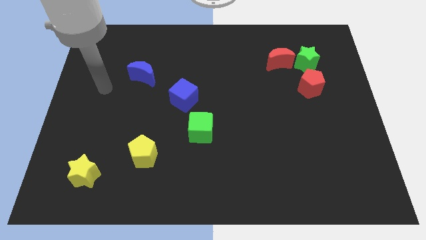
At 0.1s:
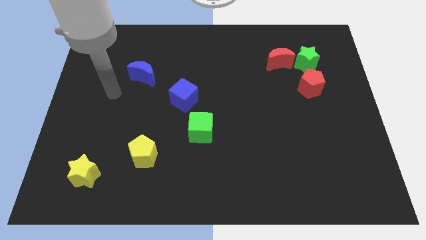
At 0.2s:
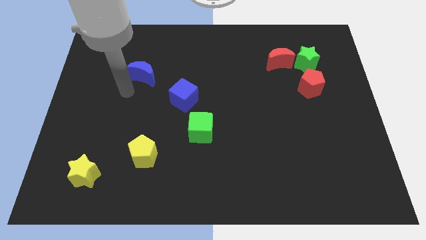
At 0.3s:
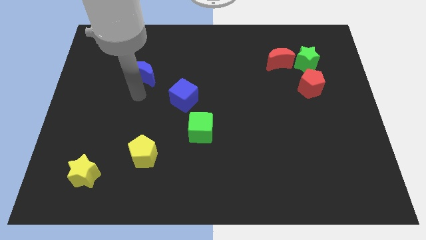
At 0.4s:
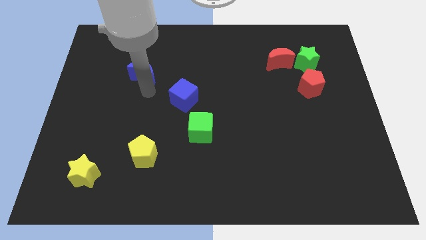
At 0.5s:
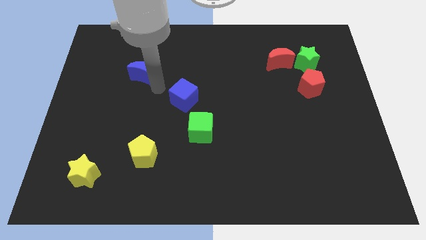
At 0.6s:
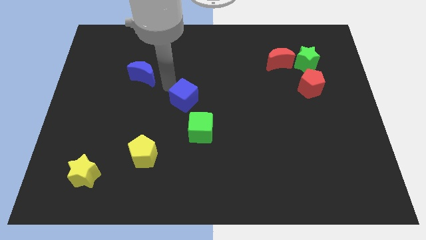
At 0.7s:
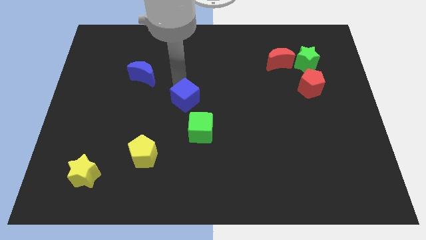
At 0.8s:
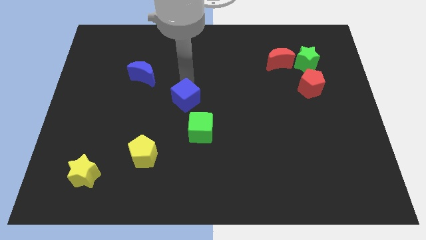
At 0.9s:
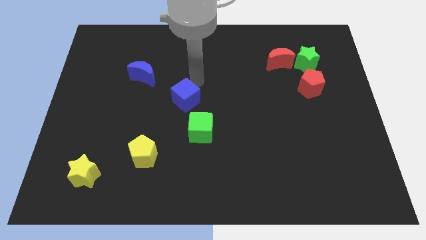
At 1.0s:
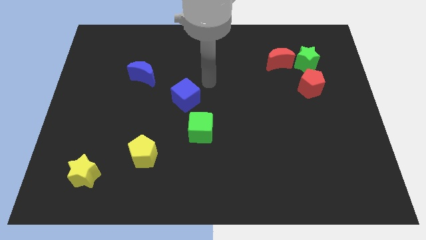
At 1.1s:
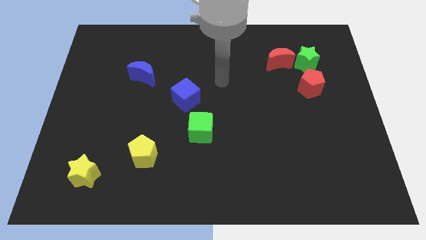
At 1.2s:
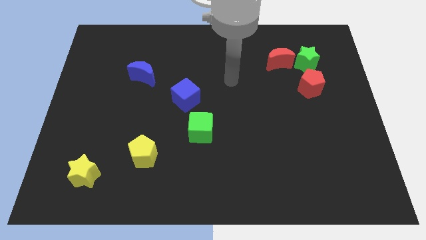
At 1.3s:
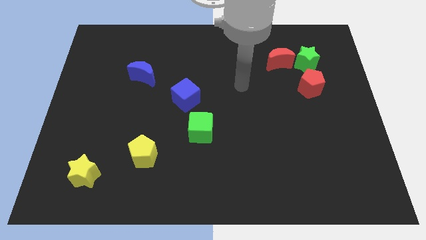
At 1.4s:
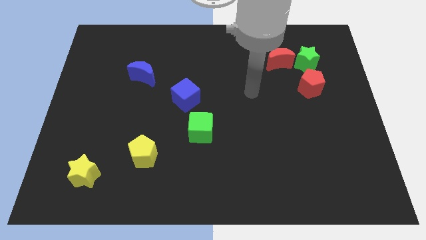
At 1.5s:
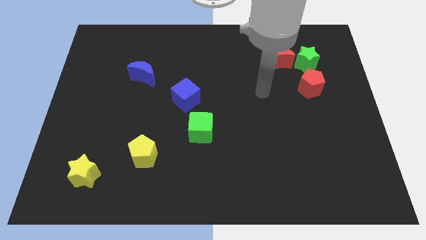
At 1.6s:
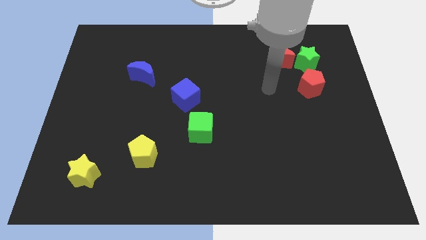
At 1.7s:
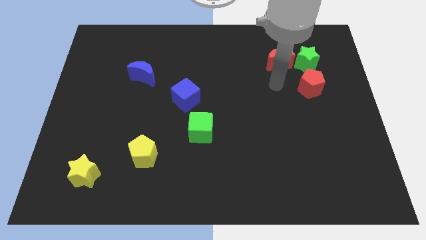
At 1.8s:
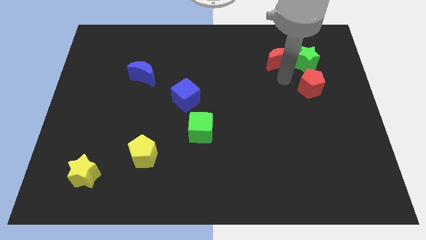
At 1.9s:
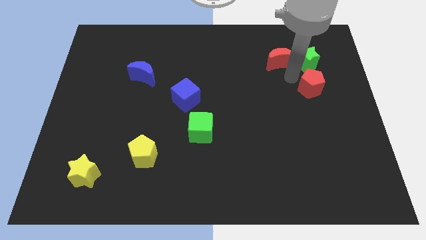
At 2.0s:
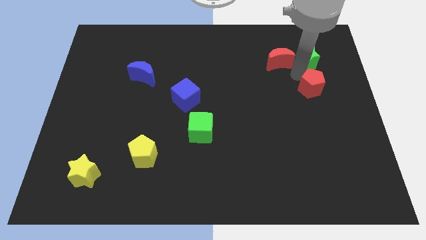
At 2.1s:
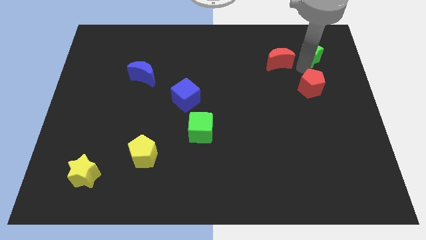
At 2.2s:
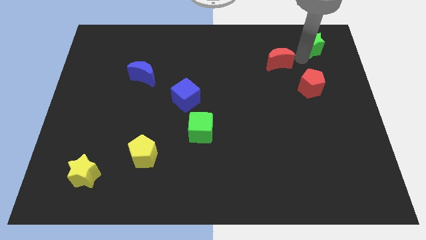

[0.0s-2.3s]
move the red moon away from the green star

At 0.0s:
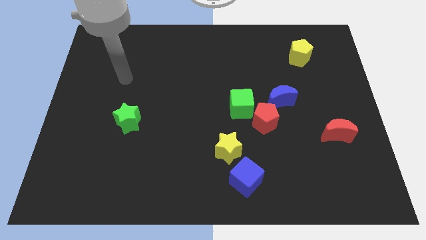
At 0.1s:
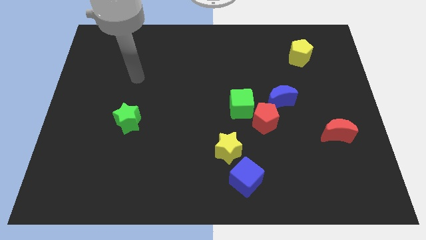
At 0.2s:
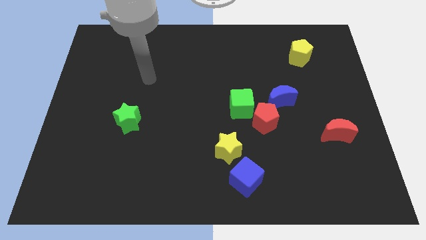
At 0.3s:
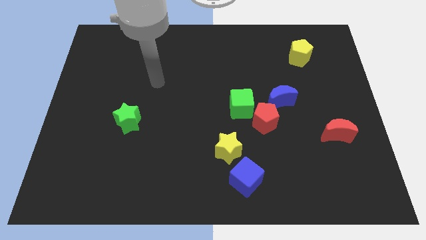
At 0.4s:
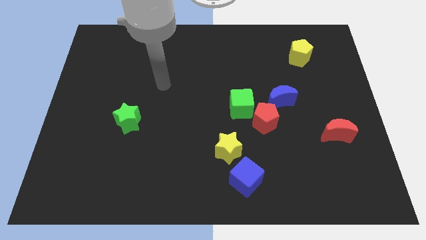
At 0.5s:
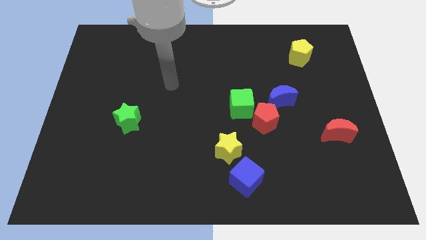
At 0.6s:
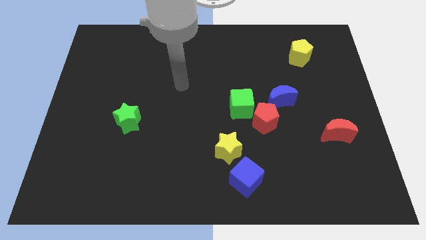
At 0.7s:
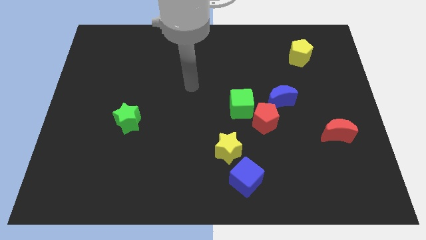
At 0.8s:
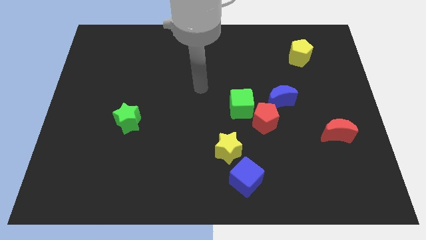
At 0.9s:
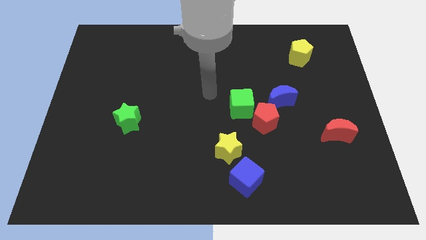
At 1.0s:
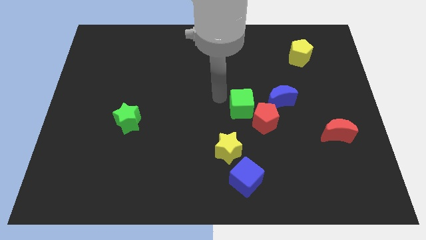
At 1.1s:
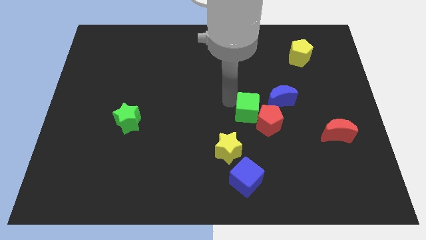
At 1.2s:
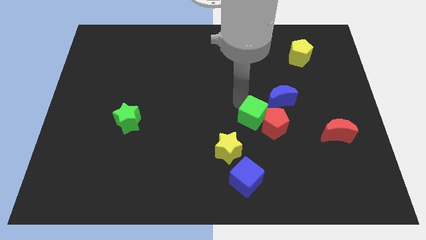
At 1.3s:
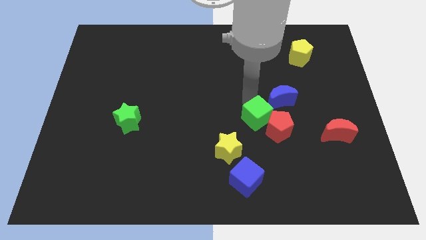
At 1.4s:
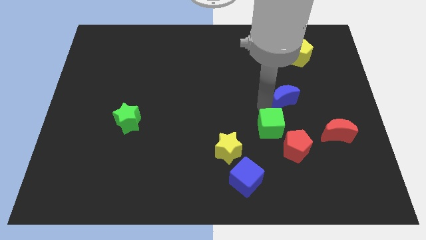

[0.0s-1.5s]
move the red pentagon away from the green cube and blue moon

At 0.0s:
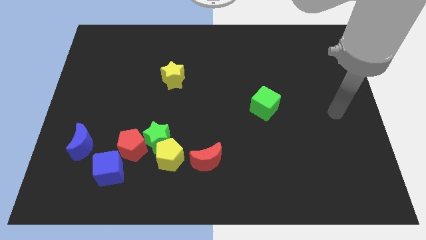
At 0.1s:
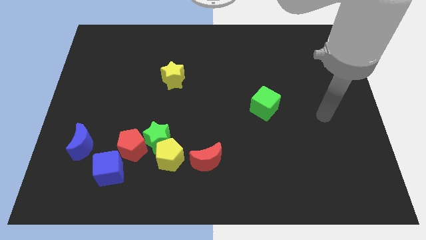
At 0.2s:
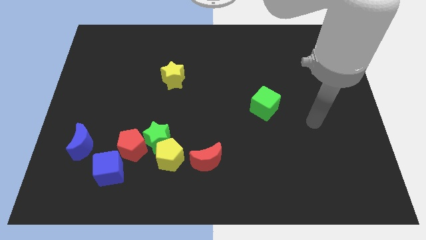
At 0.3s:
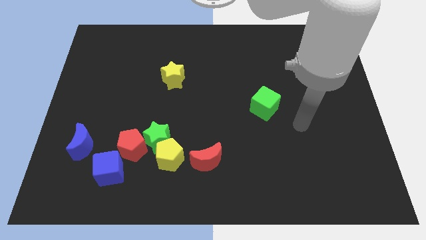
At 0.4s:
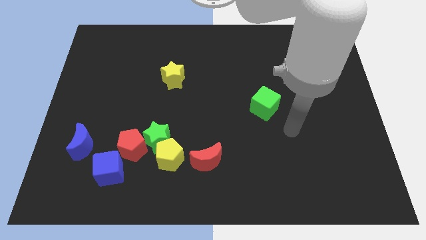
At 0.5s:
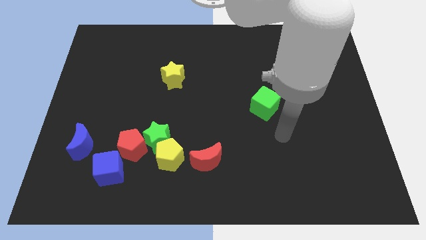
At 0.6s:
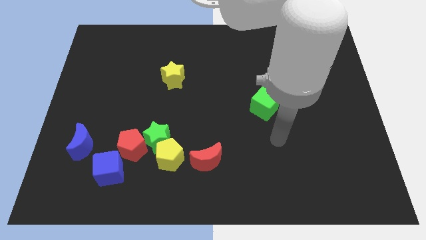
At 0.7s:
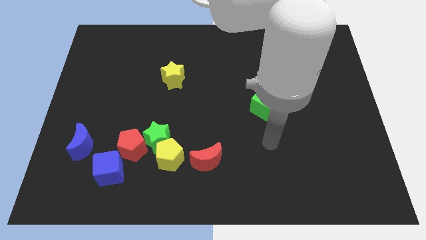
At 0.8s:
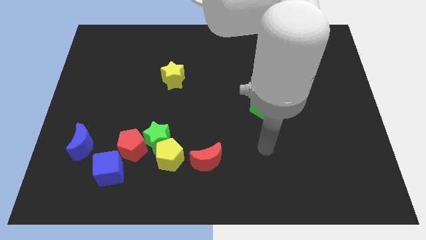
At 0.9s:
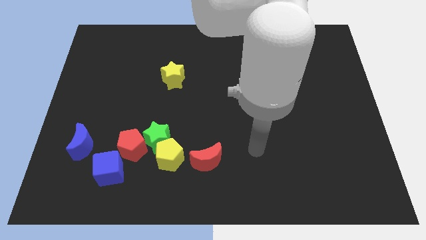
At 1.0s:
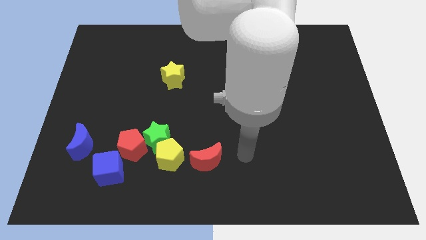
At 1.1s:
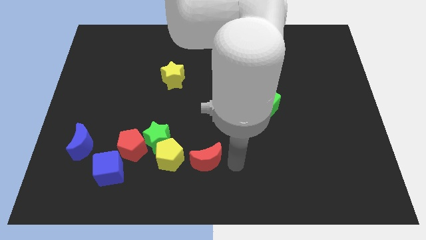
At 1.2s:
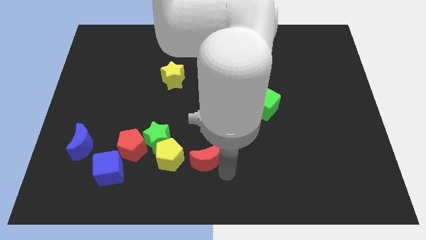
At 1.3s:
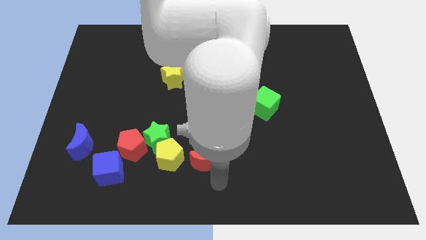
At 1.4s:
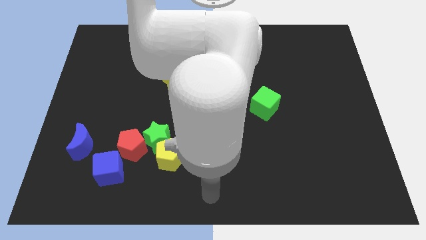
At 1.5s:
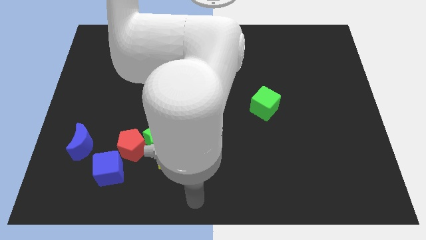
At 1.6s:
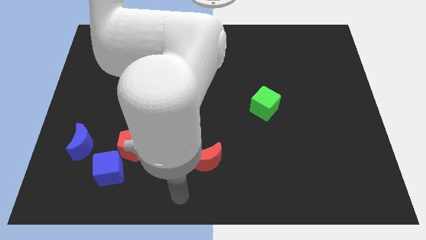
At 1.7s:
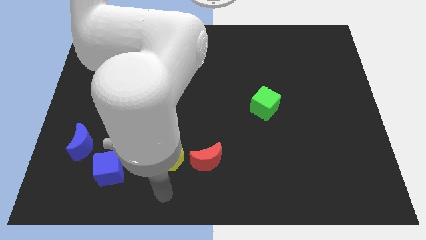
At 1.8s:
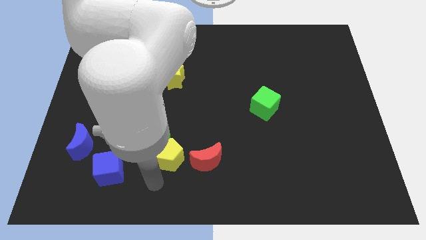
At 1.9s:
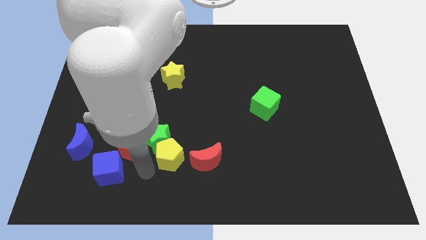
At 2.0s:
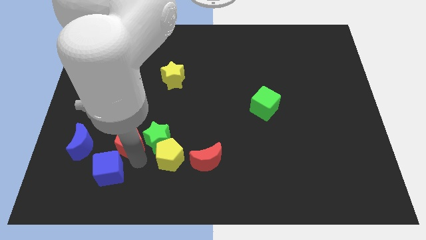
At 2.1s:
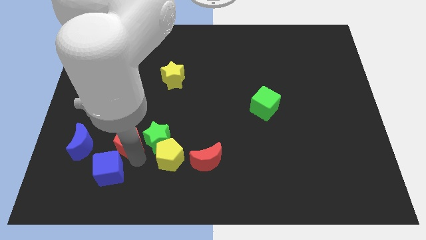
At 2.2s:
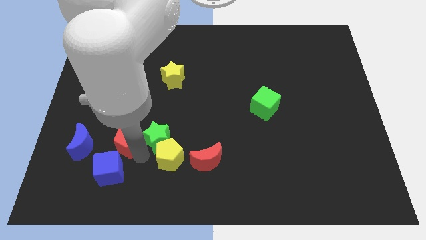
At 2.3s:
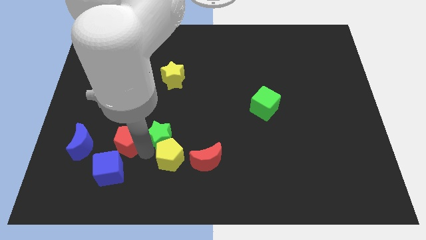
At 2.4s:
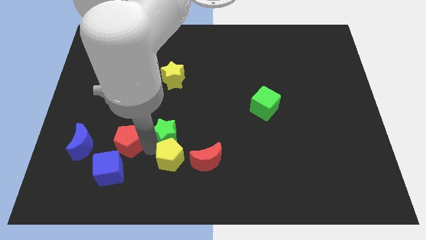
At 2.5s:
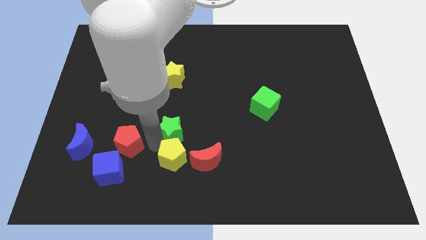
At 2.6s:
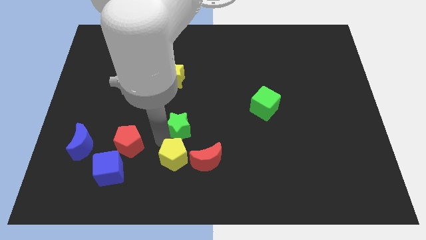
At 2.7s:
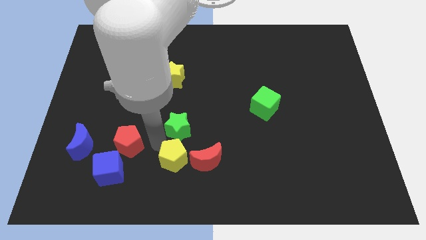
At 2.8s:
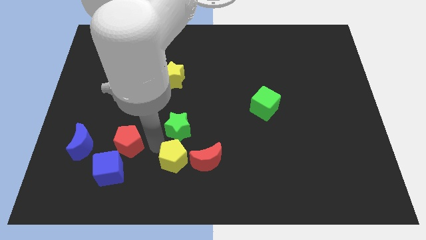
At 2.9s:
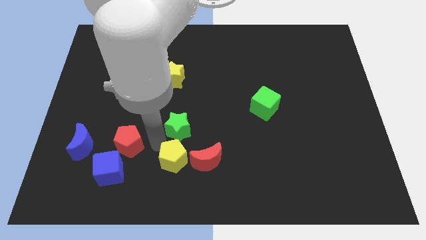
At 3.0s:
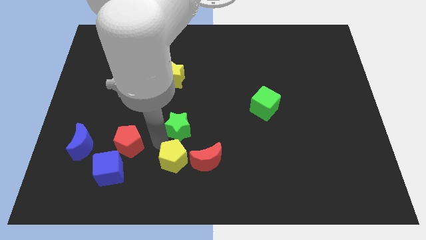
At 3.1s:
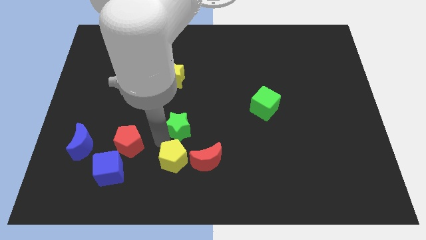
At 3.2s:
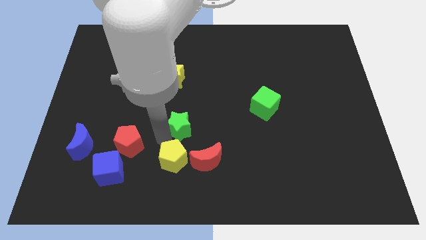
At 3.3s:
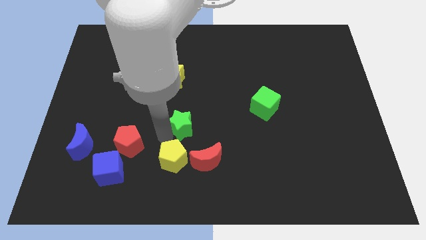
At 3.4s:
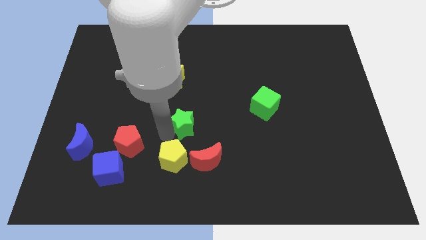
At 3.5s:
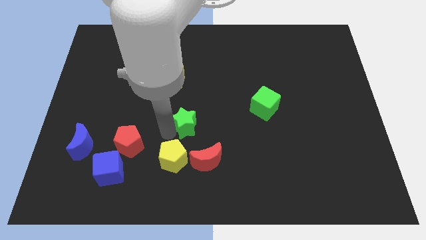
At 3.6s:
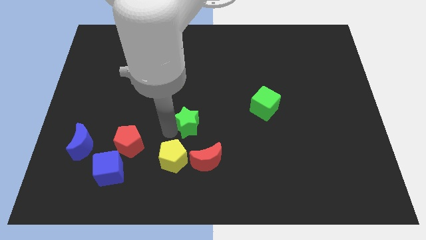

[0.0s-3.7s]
pull the green star apart from the yellow pentagon and red pentagon

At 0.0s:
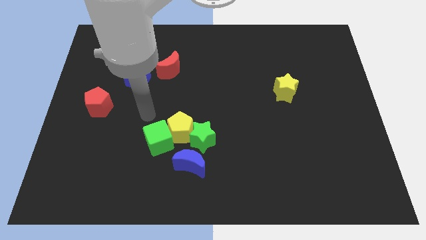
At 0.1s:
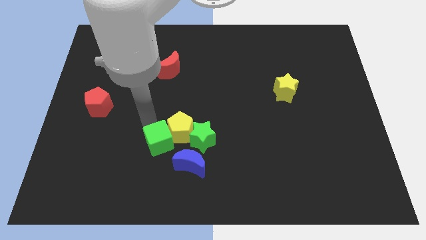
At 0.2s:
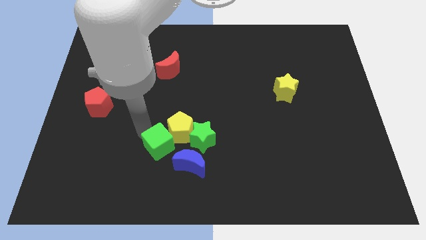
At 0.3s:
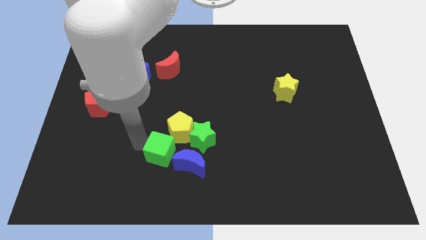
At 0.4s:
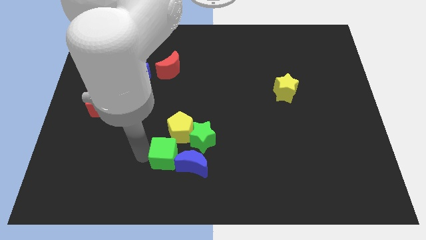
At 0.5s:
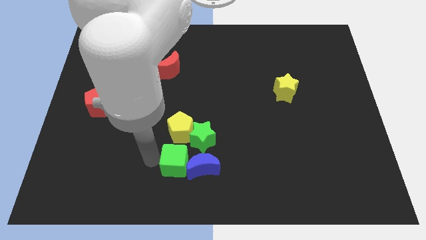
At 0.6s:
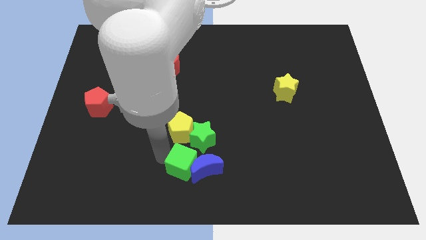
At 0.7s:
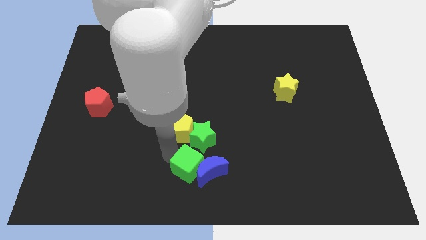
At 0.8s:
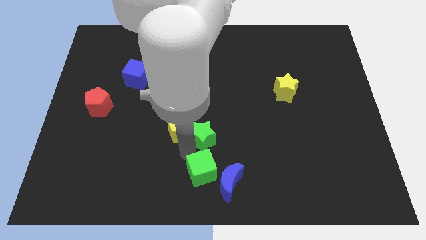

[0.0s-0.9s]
pull the yellow pentagon apart from the clump

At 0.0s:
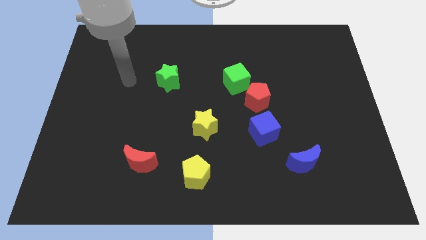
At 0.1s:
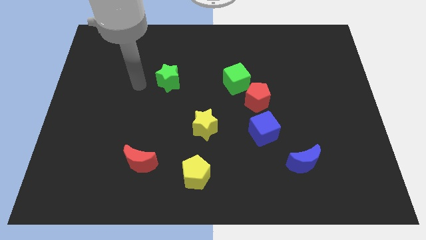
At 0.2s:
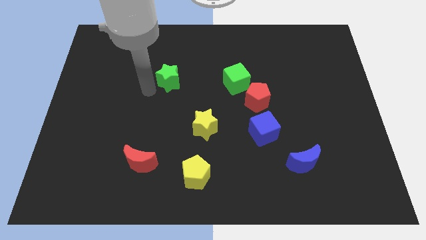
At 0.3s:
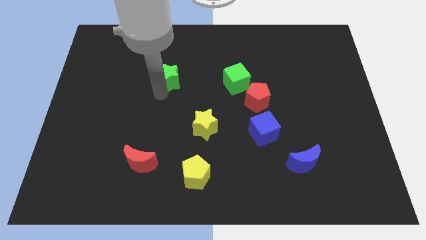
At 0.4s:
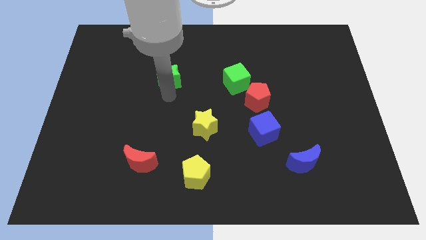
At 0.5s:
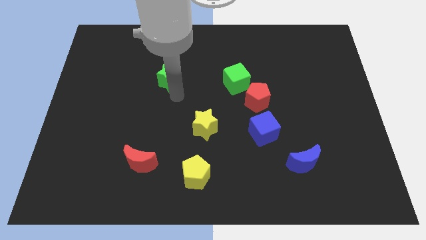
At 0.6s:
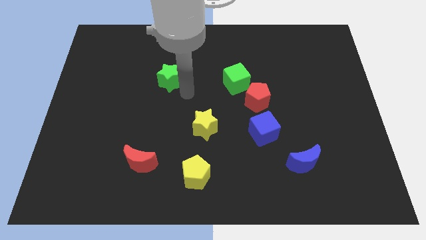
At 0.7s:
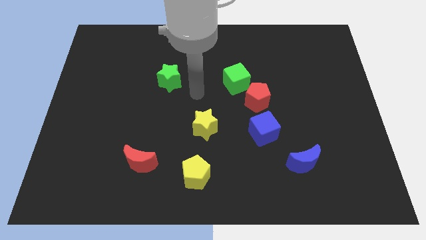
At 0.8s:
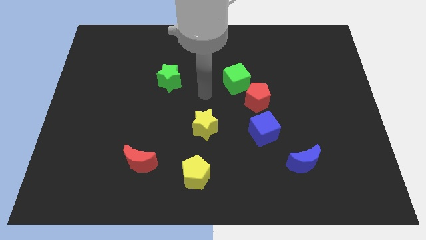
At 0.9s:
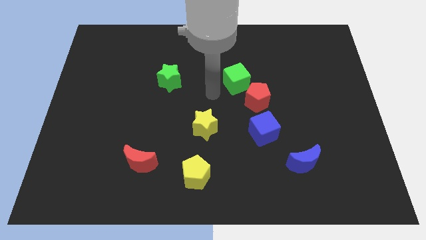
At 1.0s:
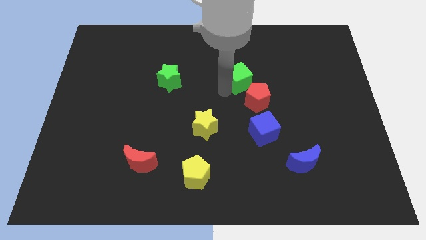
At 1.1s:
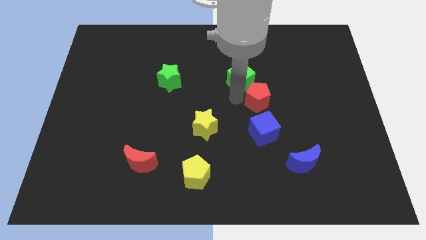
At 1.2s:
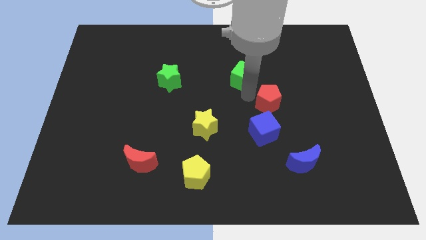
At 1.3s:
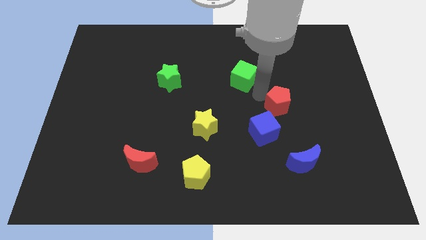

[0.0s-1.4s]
pull the green cube apart from the red pentagon
